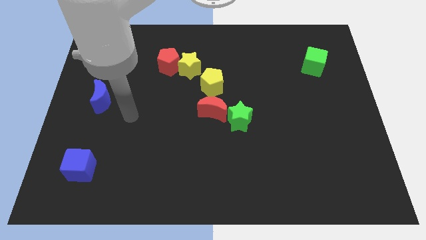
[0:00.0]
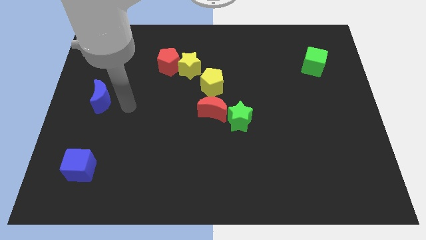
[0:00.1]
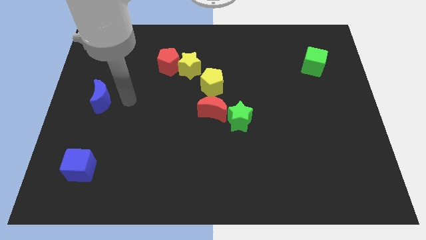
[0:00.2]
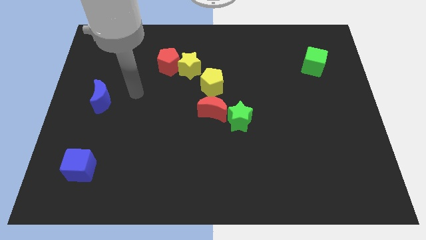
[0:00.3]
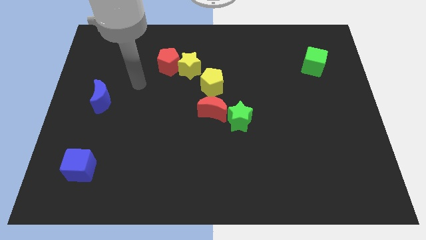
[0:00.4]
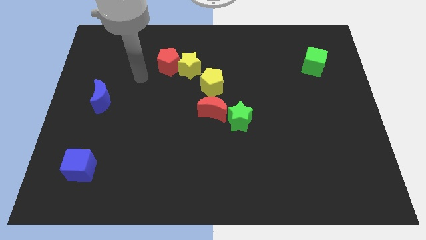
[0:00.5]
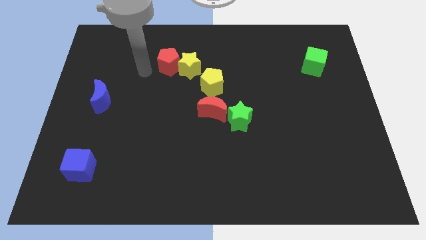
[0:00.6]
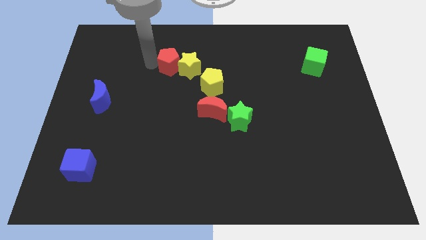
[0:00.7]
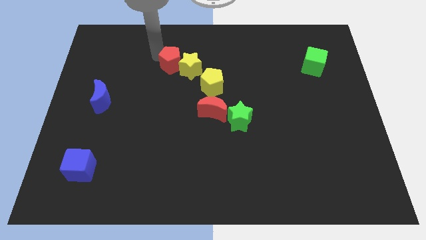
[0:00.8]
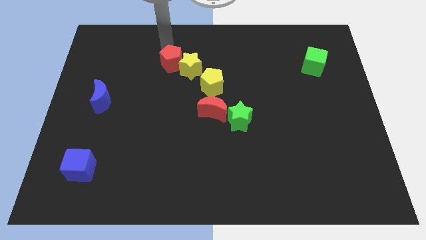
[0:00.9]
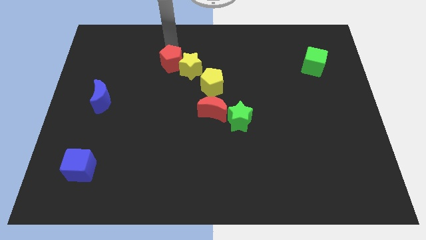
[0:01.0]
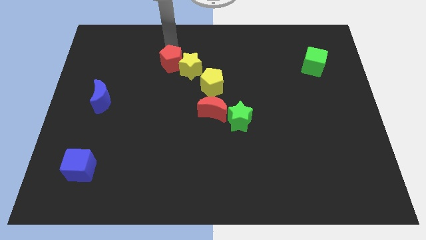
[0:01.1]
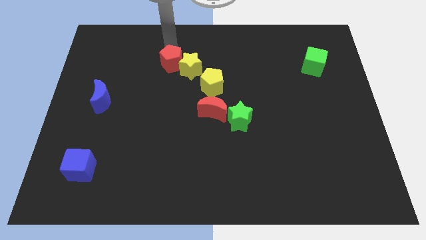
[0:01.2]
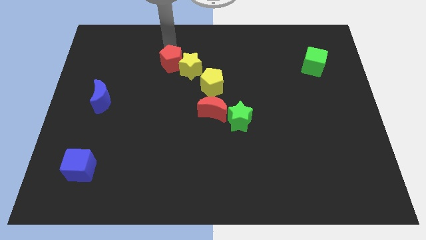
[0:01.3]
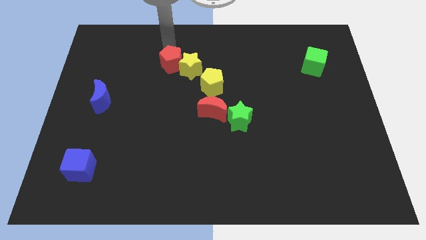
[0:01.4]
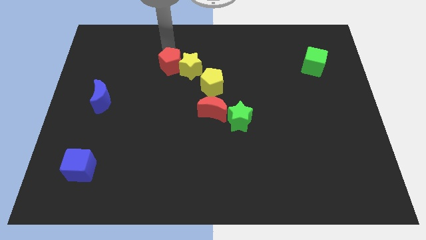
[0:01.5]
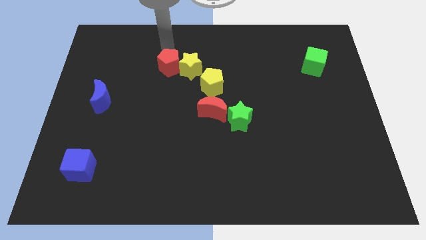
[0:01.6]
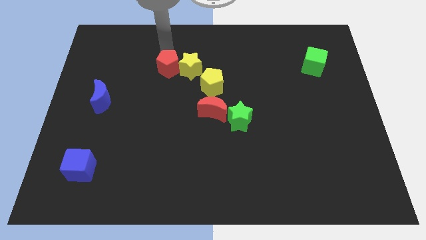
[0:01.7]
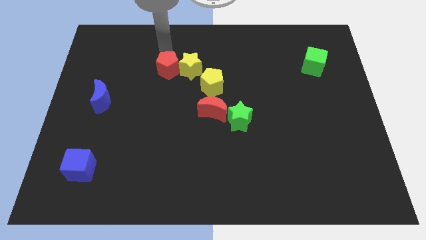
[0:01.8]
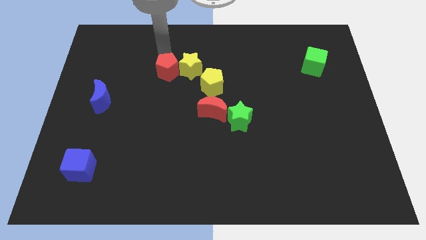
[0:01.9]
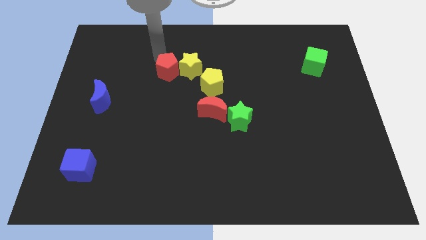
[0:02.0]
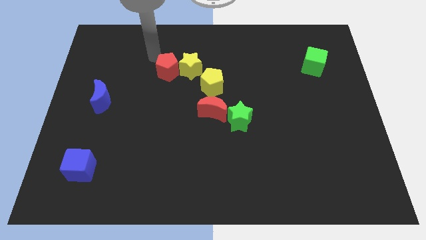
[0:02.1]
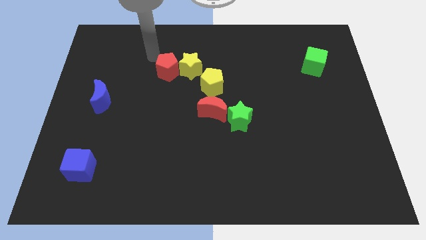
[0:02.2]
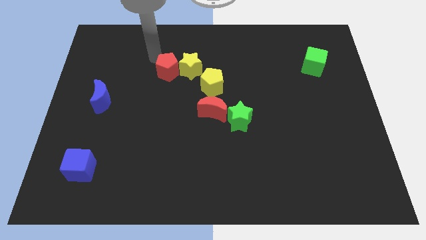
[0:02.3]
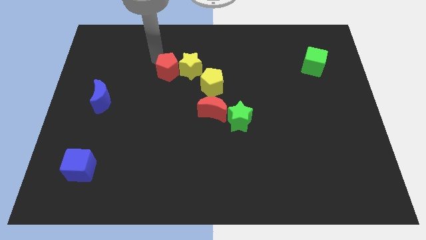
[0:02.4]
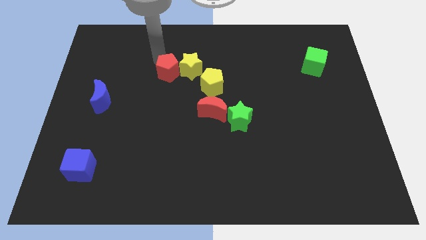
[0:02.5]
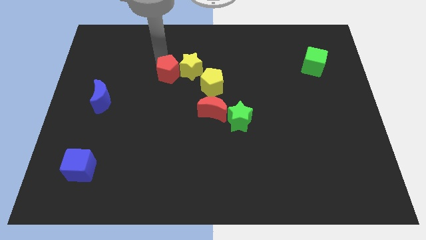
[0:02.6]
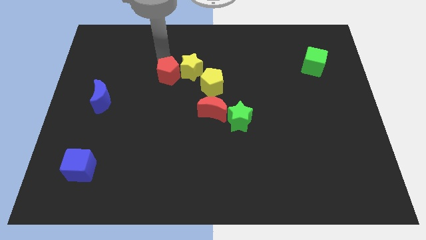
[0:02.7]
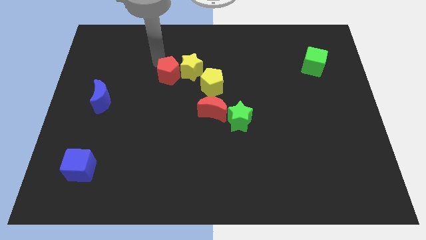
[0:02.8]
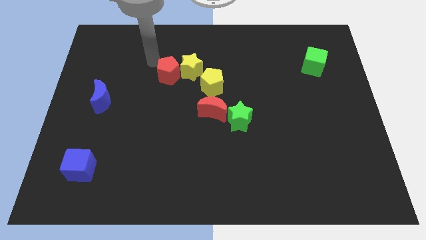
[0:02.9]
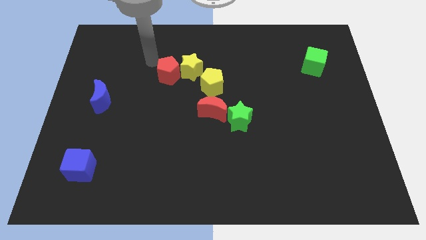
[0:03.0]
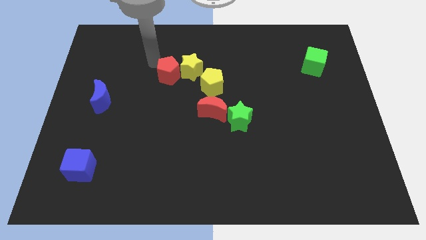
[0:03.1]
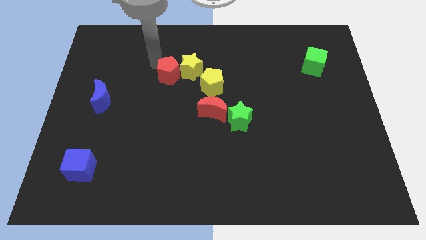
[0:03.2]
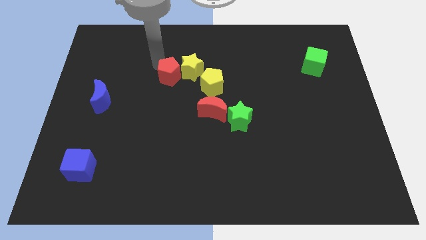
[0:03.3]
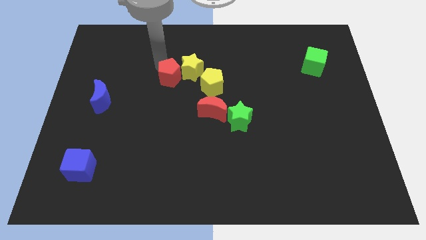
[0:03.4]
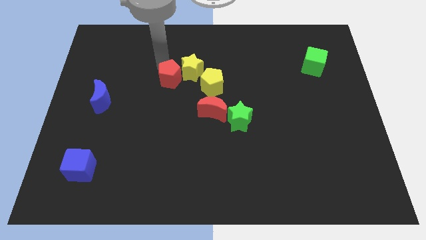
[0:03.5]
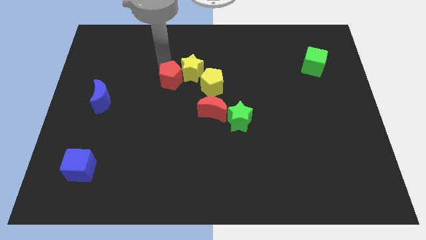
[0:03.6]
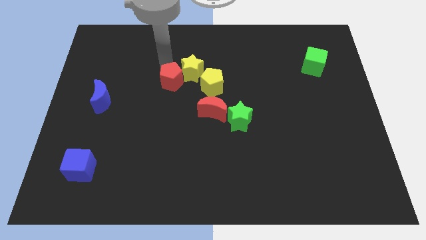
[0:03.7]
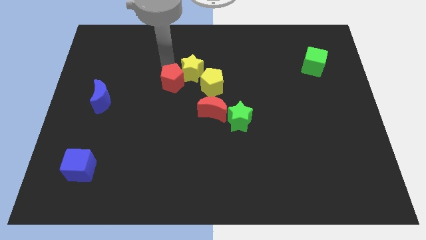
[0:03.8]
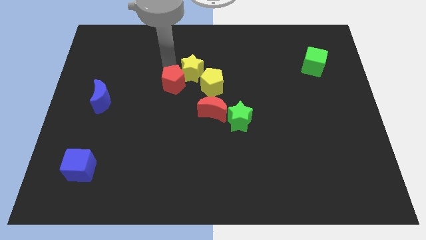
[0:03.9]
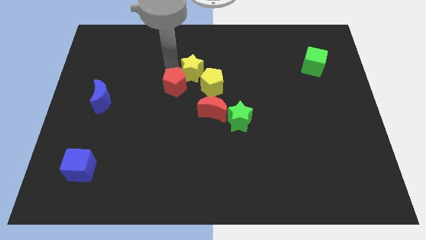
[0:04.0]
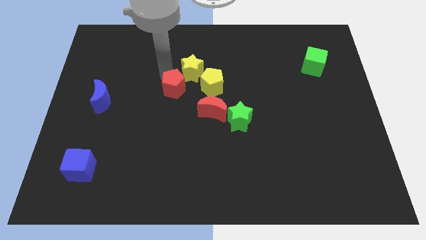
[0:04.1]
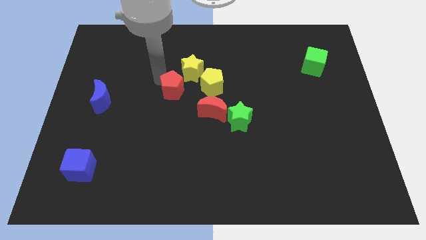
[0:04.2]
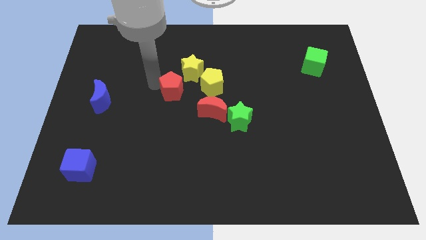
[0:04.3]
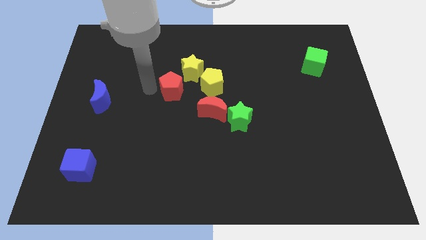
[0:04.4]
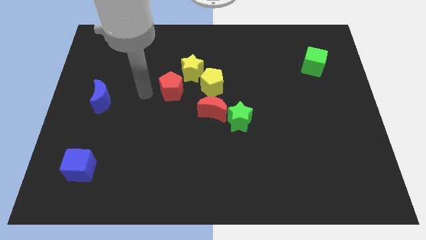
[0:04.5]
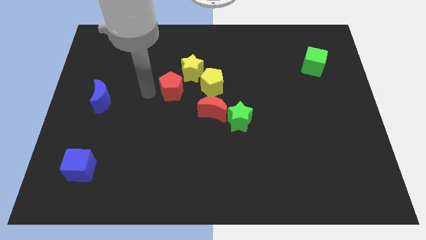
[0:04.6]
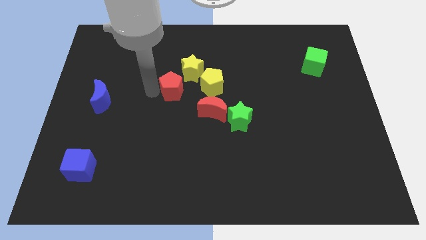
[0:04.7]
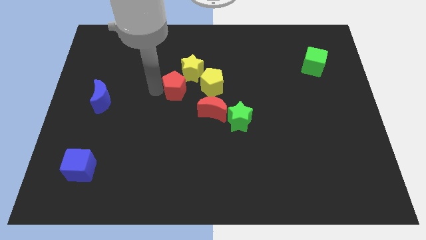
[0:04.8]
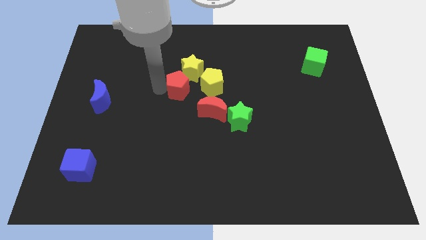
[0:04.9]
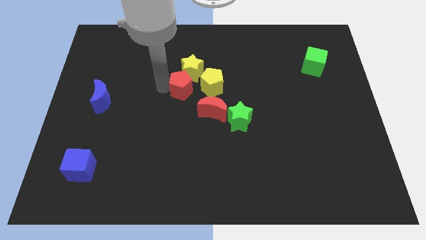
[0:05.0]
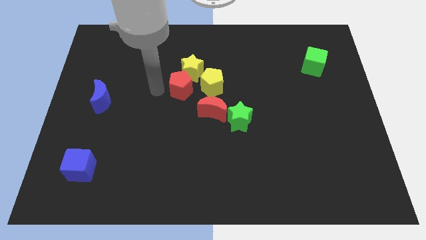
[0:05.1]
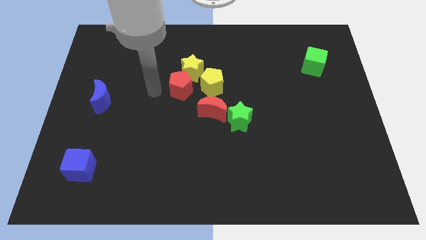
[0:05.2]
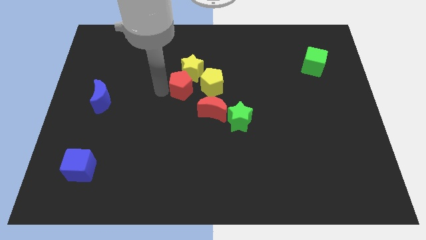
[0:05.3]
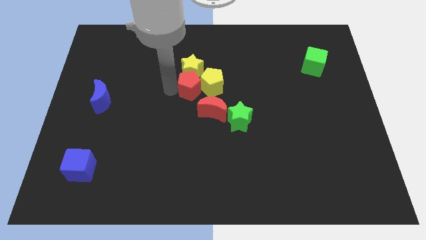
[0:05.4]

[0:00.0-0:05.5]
push the red pentagon to the yellow pentagon

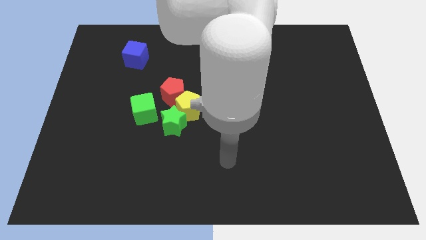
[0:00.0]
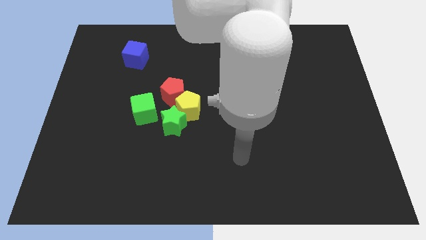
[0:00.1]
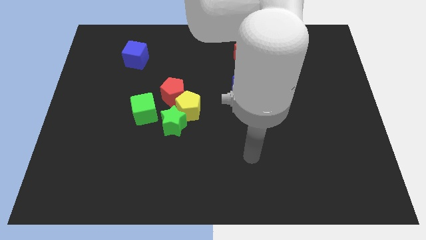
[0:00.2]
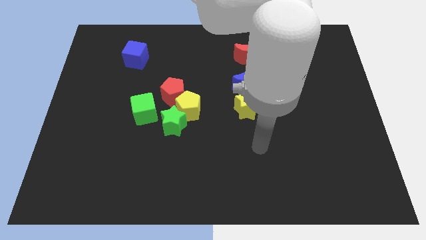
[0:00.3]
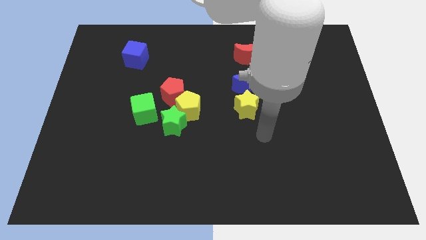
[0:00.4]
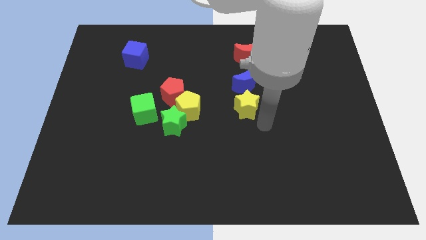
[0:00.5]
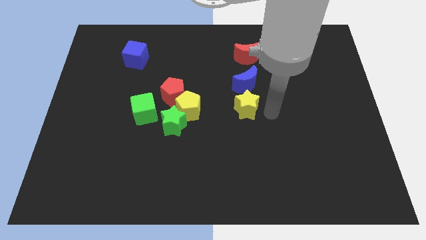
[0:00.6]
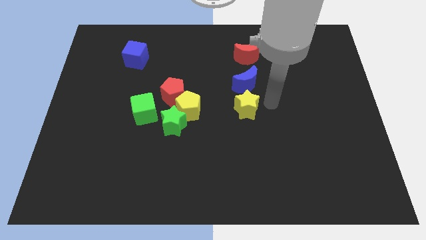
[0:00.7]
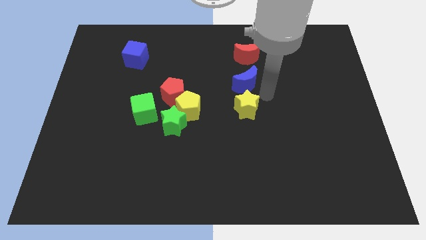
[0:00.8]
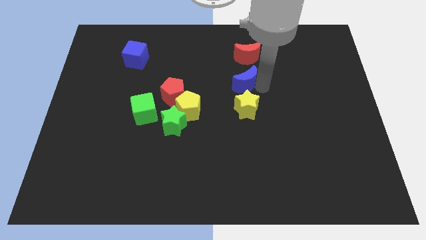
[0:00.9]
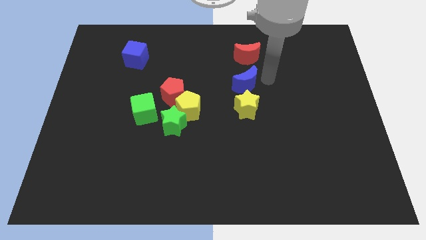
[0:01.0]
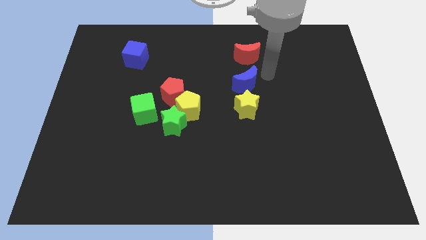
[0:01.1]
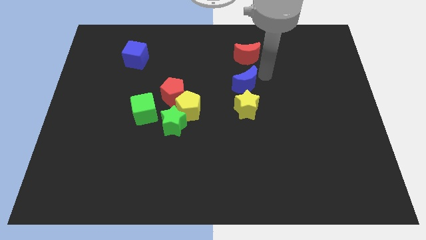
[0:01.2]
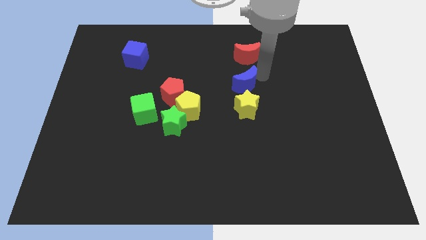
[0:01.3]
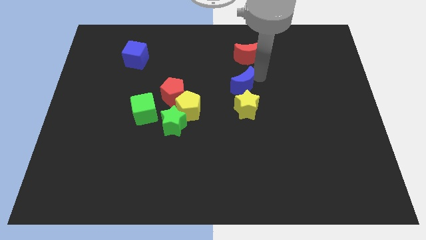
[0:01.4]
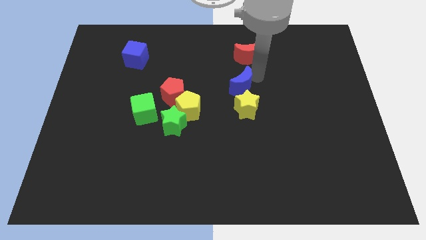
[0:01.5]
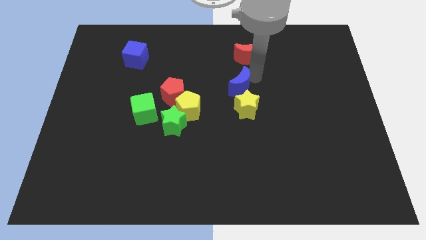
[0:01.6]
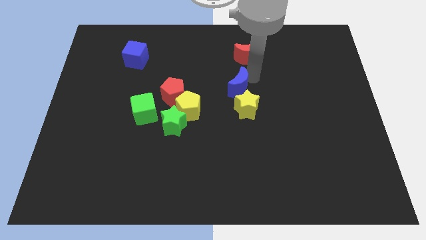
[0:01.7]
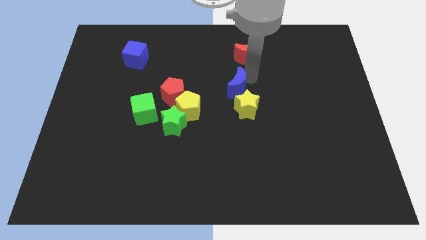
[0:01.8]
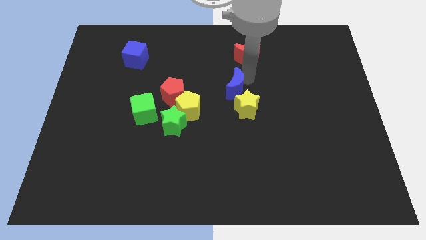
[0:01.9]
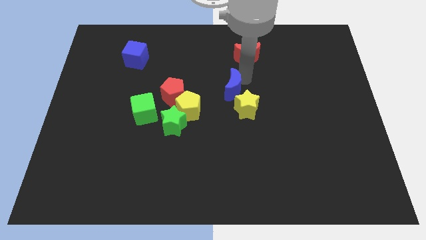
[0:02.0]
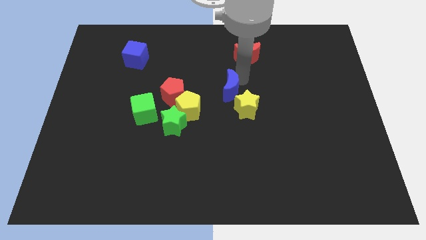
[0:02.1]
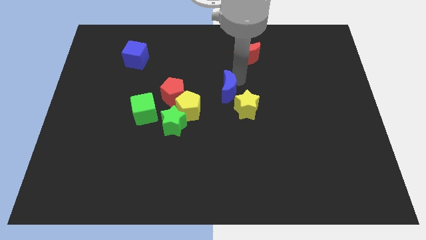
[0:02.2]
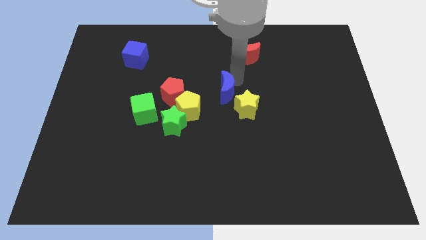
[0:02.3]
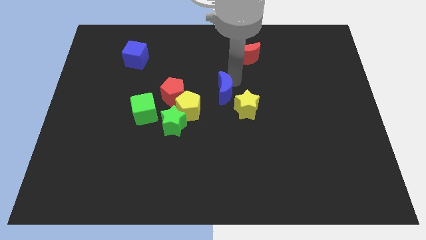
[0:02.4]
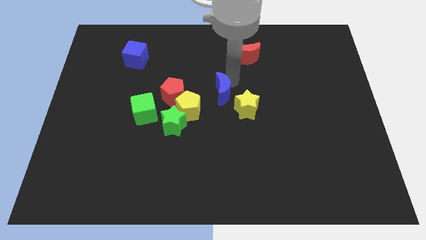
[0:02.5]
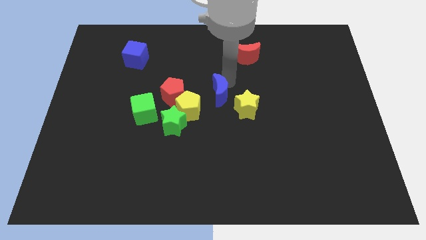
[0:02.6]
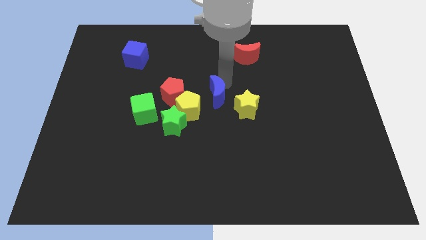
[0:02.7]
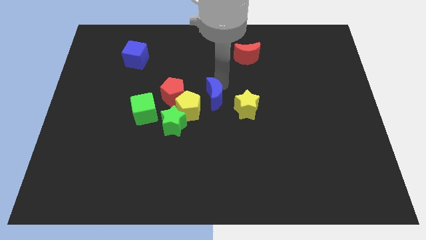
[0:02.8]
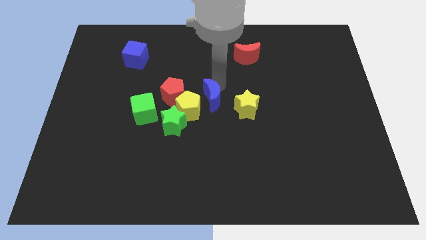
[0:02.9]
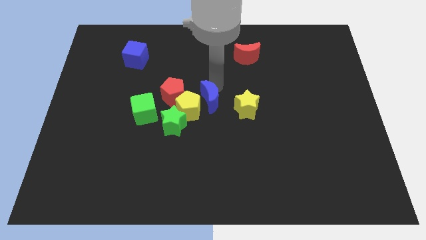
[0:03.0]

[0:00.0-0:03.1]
put the blue moon to the yellow pentagon
